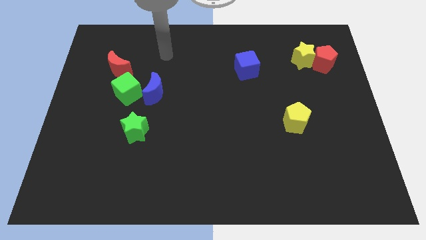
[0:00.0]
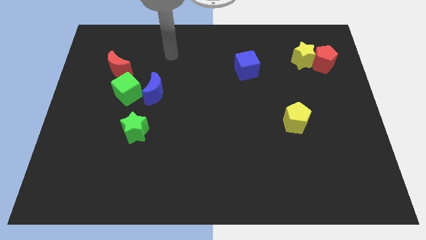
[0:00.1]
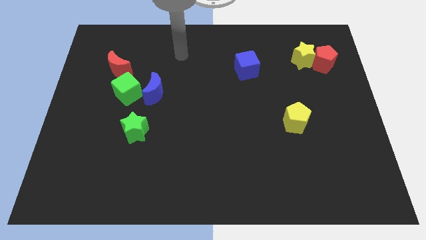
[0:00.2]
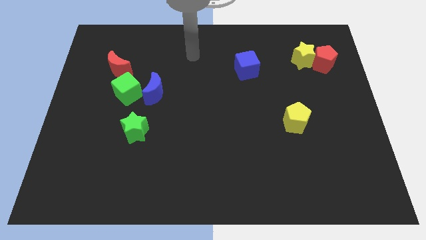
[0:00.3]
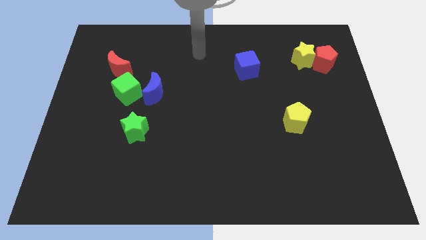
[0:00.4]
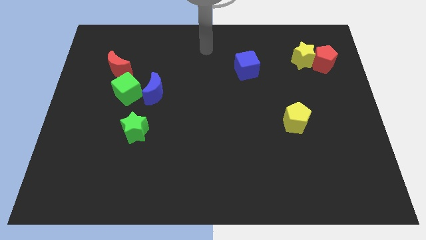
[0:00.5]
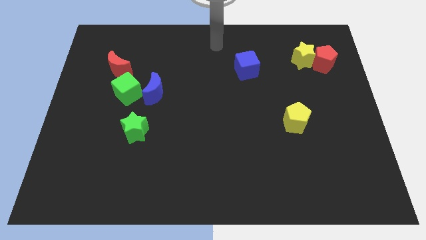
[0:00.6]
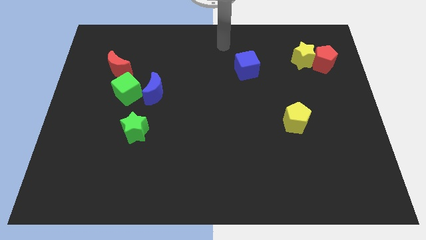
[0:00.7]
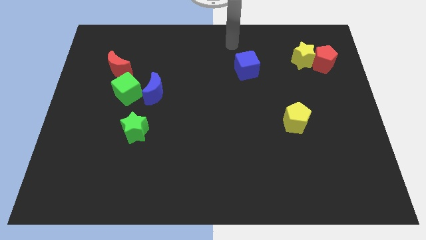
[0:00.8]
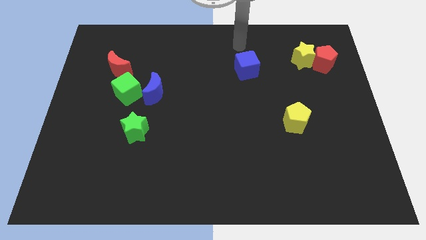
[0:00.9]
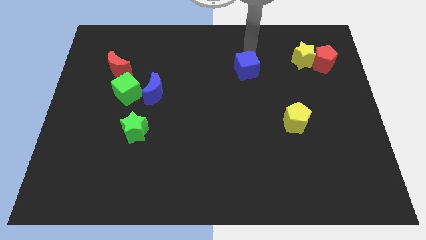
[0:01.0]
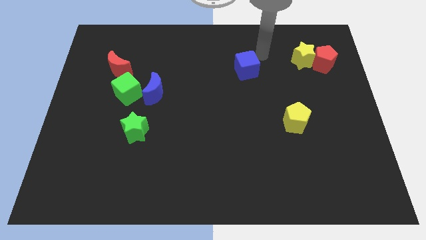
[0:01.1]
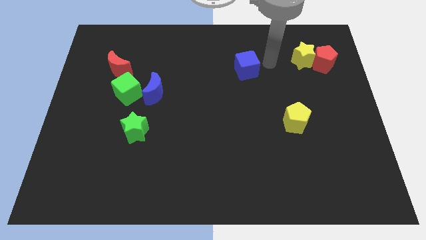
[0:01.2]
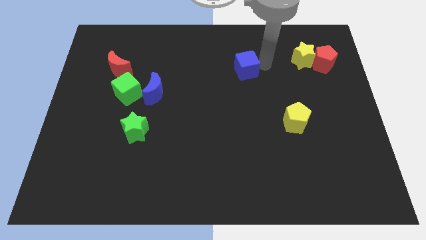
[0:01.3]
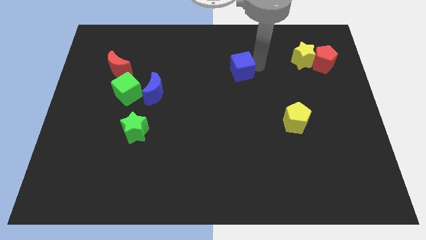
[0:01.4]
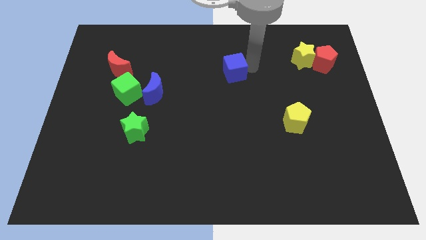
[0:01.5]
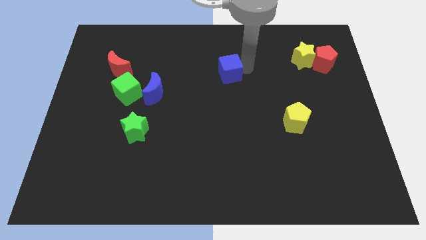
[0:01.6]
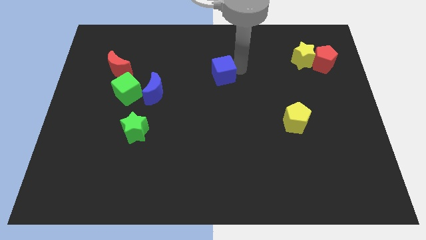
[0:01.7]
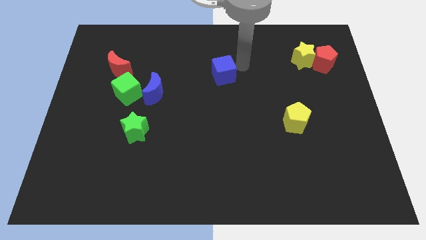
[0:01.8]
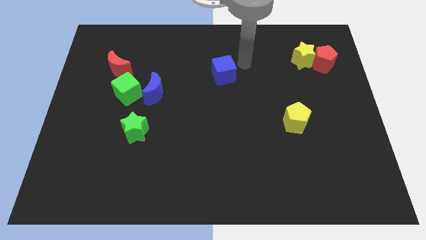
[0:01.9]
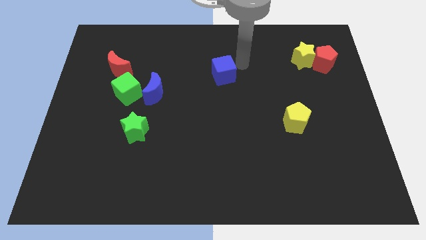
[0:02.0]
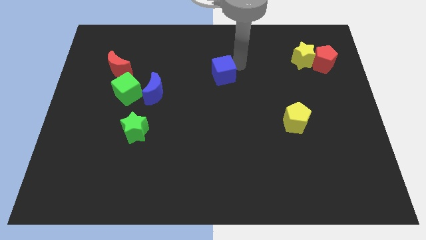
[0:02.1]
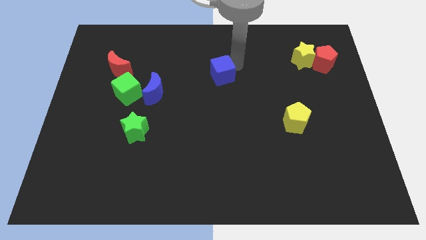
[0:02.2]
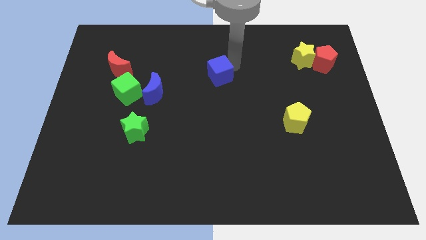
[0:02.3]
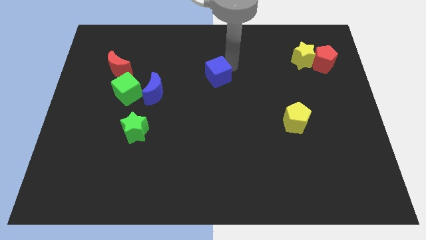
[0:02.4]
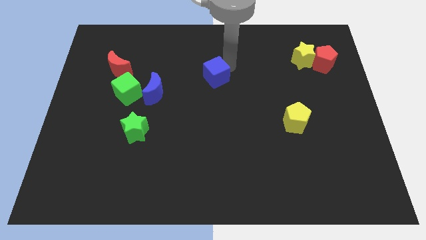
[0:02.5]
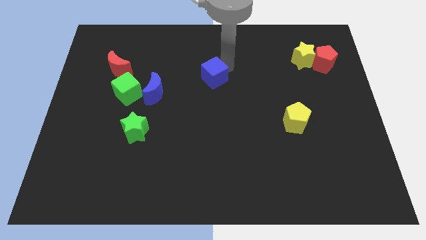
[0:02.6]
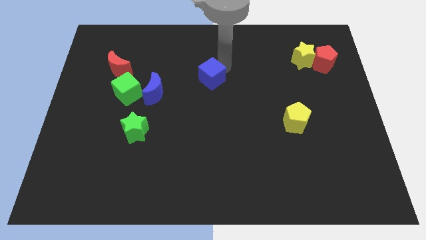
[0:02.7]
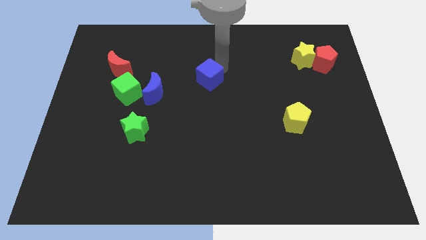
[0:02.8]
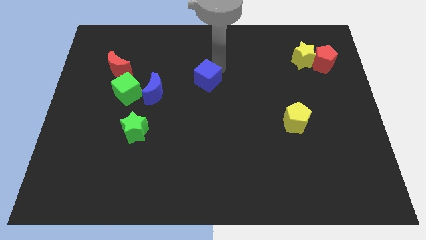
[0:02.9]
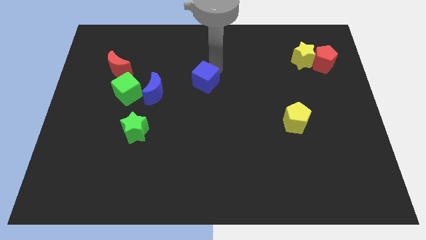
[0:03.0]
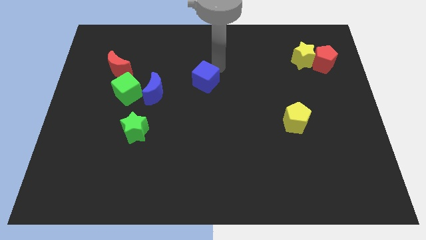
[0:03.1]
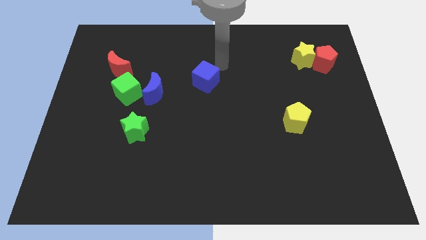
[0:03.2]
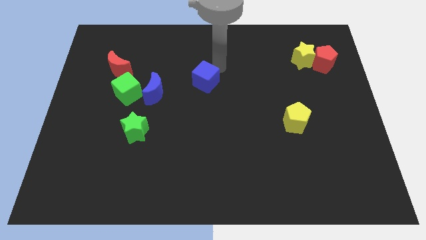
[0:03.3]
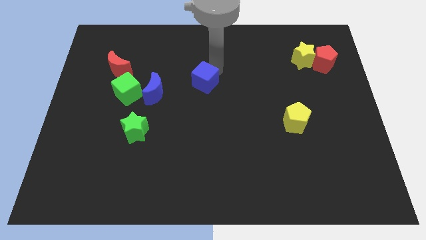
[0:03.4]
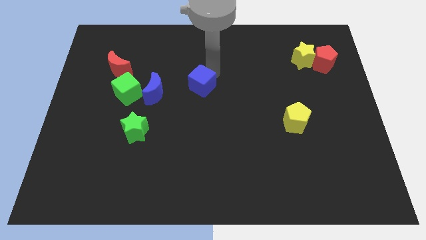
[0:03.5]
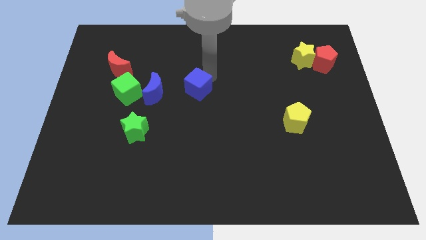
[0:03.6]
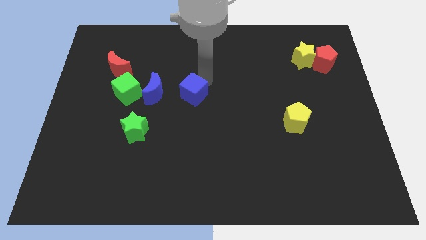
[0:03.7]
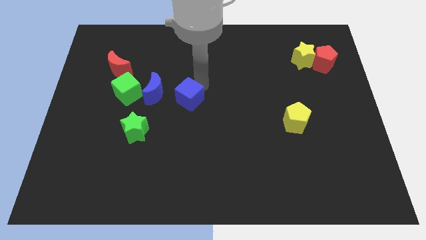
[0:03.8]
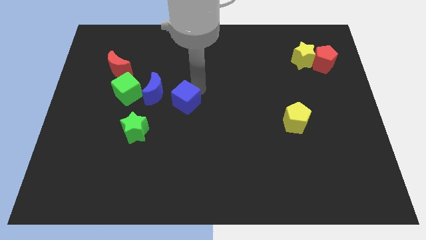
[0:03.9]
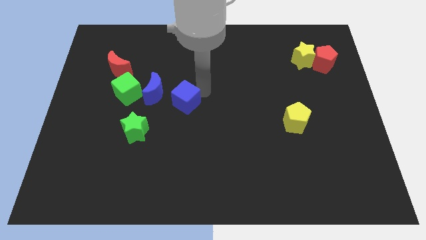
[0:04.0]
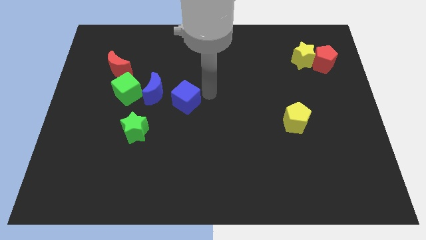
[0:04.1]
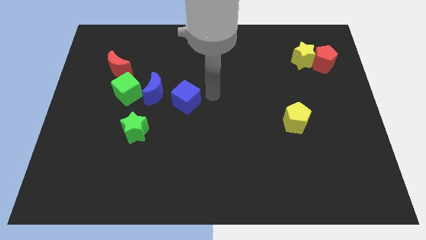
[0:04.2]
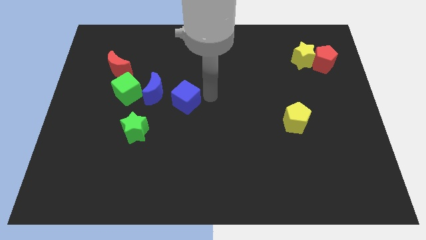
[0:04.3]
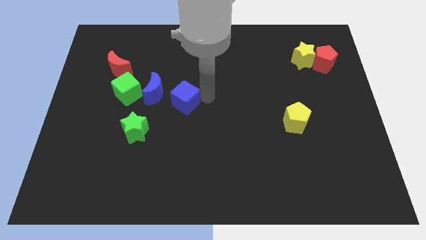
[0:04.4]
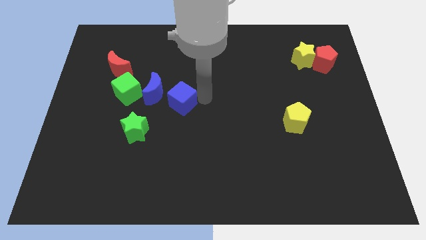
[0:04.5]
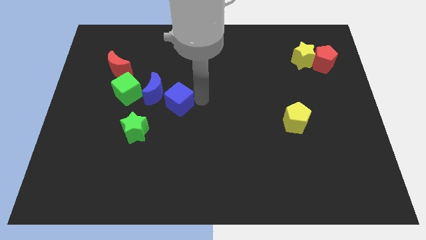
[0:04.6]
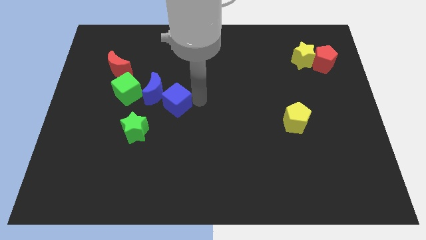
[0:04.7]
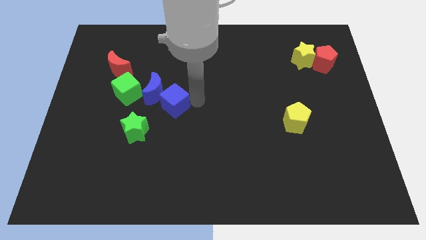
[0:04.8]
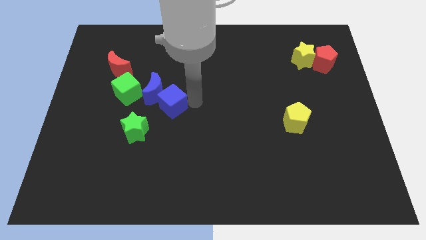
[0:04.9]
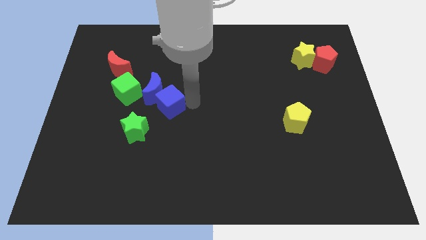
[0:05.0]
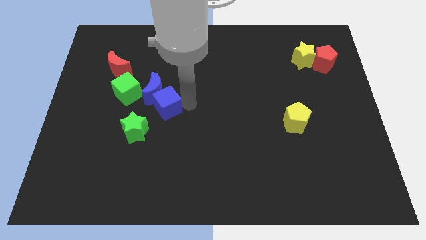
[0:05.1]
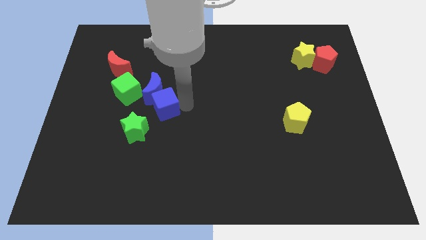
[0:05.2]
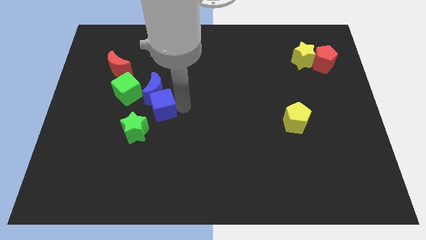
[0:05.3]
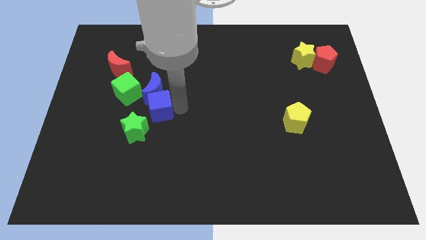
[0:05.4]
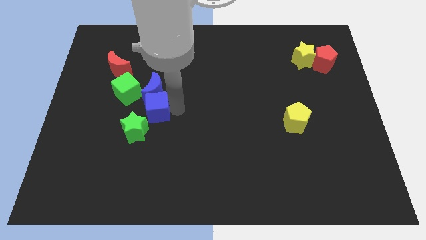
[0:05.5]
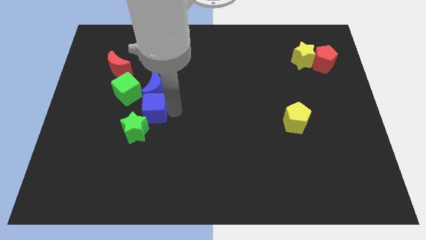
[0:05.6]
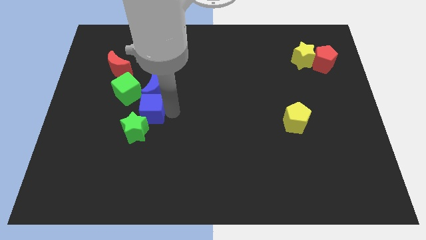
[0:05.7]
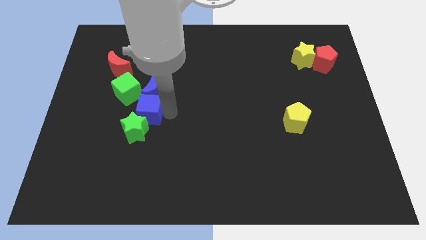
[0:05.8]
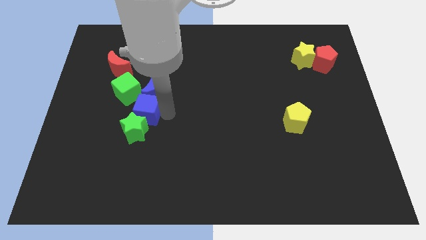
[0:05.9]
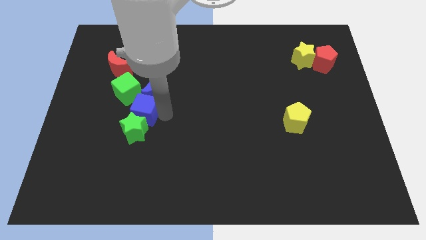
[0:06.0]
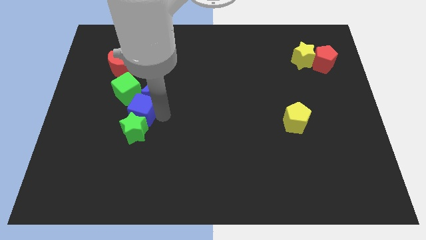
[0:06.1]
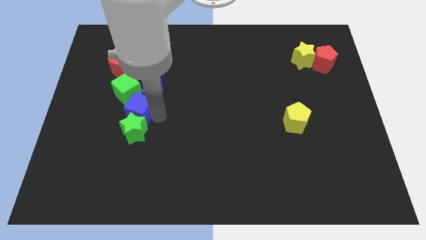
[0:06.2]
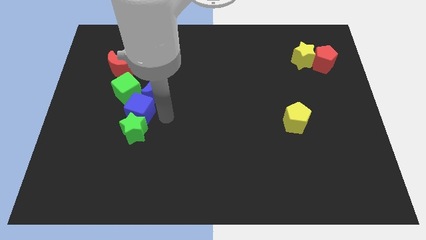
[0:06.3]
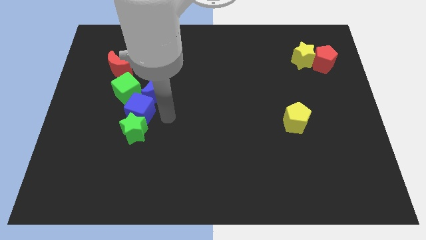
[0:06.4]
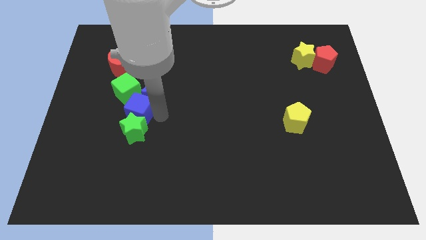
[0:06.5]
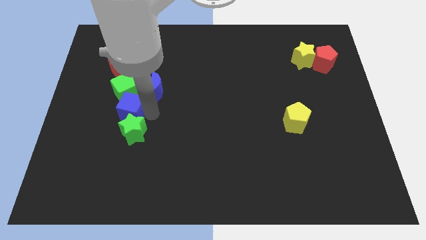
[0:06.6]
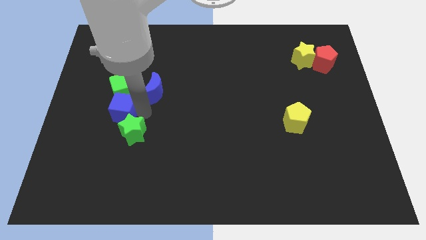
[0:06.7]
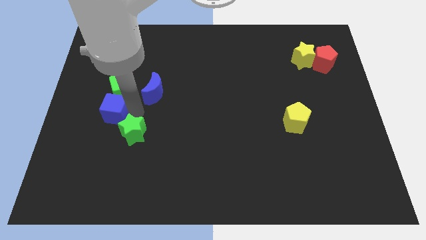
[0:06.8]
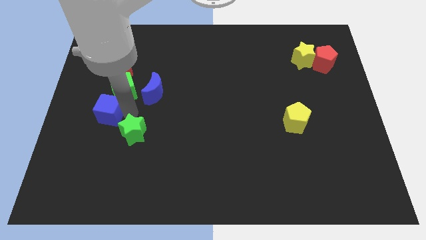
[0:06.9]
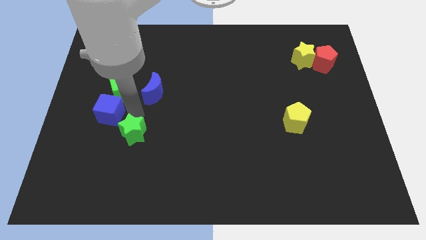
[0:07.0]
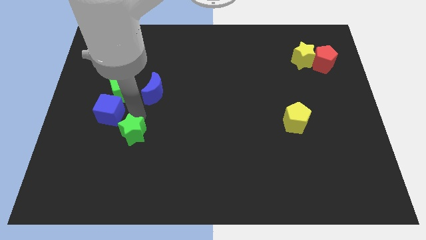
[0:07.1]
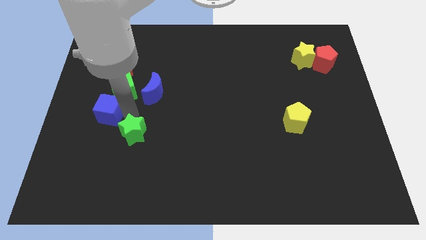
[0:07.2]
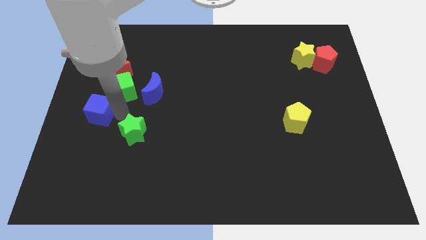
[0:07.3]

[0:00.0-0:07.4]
push the blue cube to the center left
